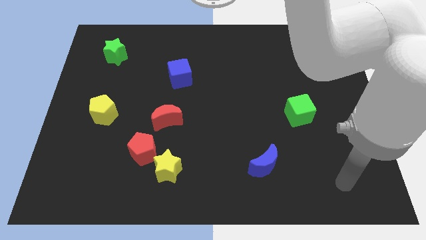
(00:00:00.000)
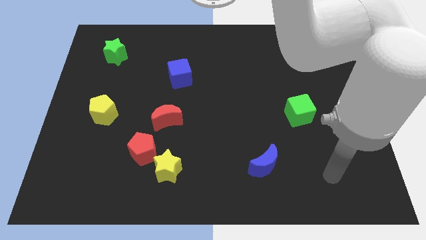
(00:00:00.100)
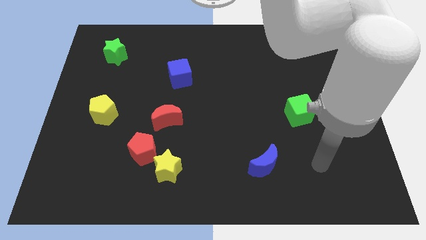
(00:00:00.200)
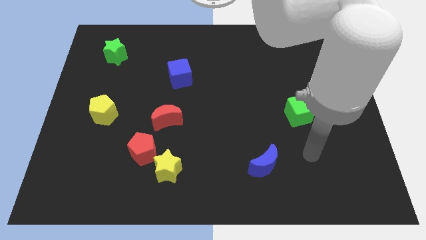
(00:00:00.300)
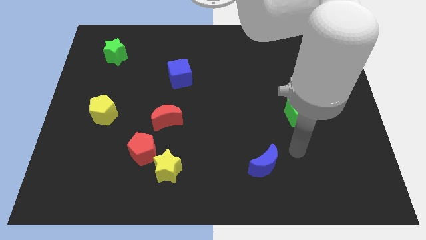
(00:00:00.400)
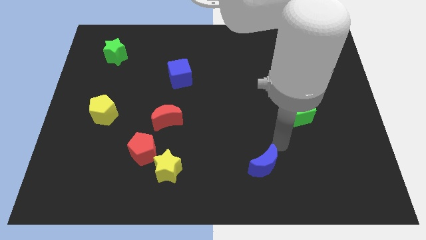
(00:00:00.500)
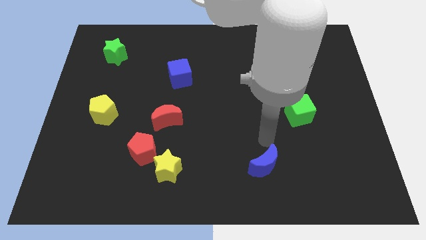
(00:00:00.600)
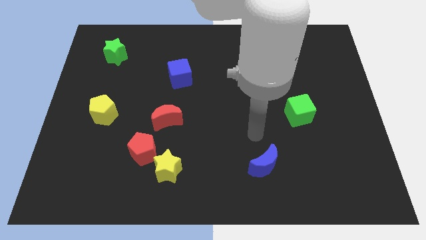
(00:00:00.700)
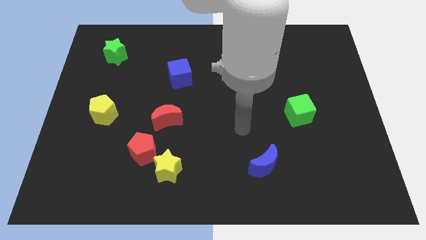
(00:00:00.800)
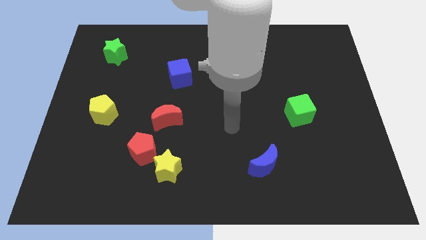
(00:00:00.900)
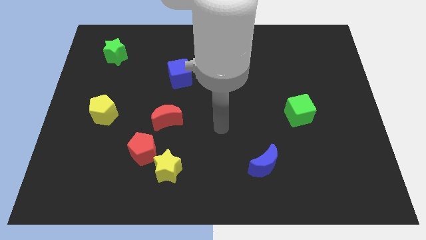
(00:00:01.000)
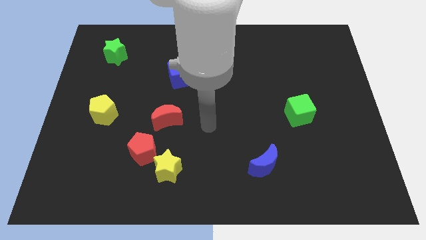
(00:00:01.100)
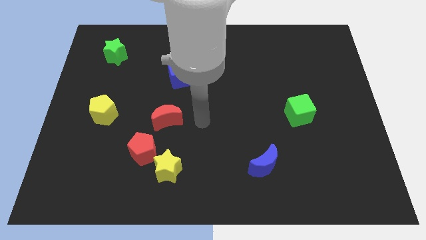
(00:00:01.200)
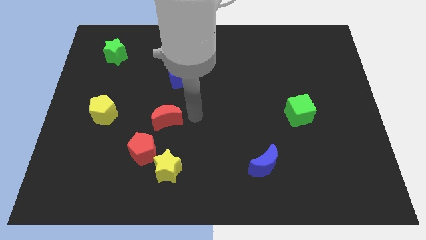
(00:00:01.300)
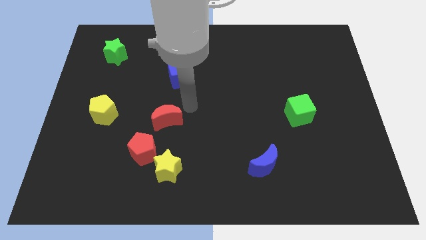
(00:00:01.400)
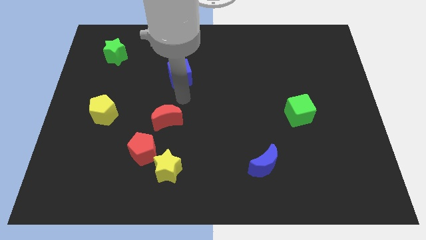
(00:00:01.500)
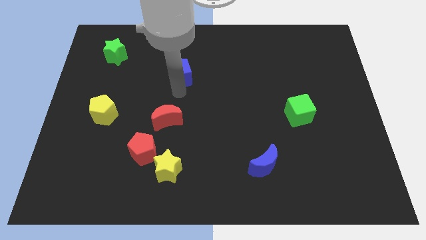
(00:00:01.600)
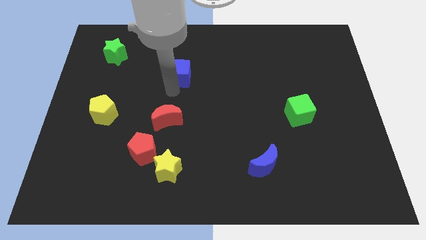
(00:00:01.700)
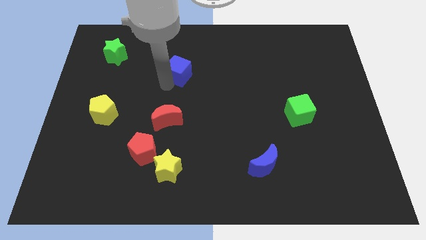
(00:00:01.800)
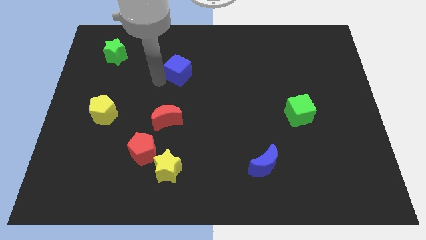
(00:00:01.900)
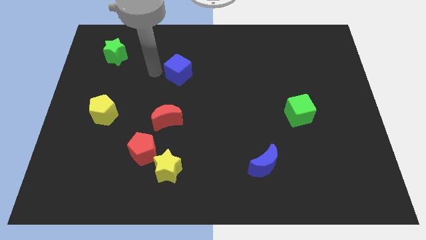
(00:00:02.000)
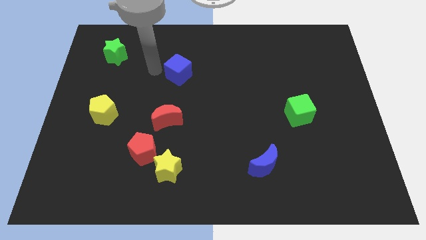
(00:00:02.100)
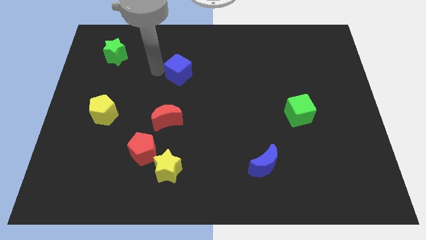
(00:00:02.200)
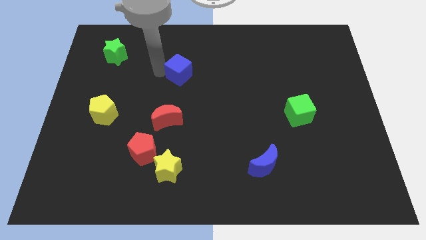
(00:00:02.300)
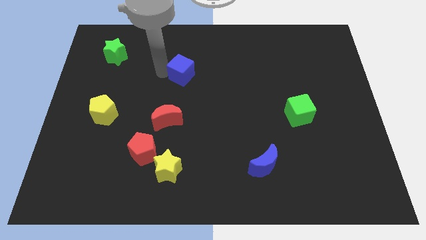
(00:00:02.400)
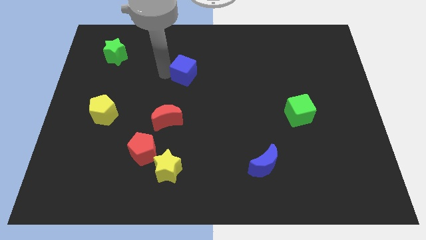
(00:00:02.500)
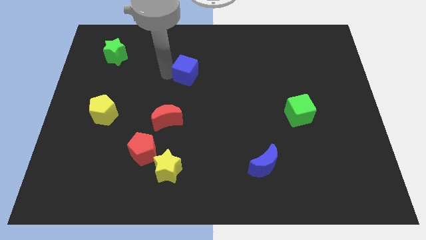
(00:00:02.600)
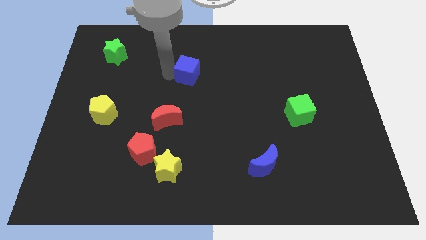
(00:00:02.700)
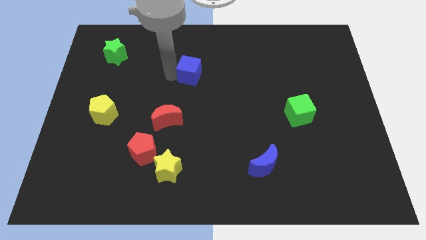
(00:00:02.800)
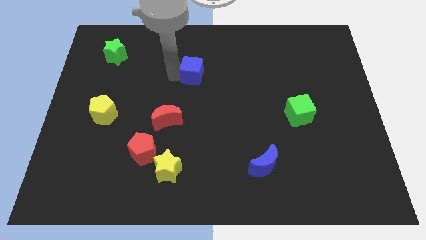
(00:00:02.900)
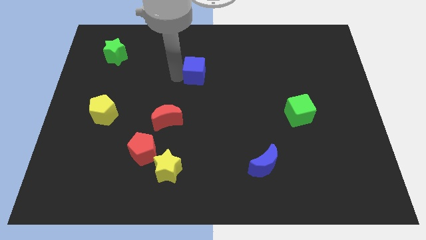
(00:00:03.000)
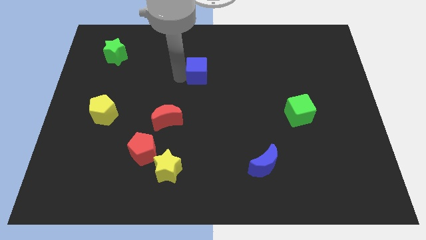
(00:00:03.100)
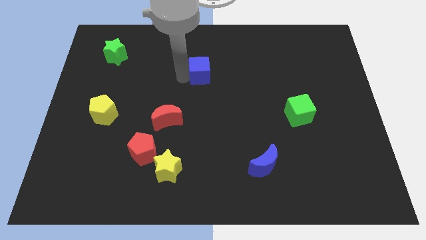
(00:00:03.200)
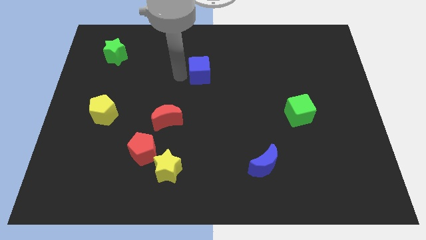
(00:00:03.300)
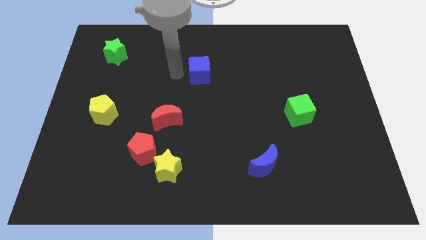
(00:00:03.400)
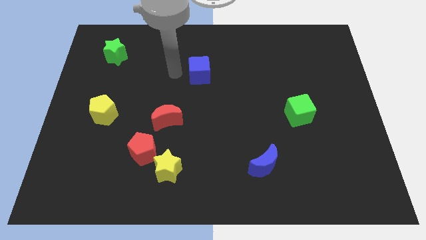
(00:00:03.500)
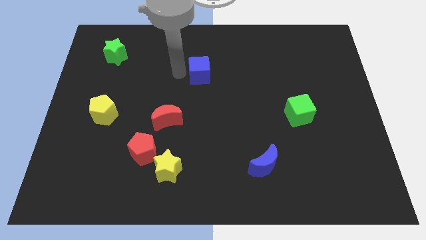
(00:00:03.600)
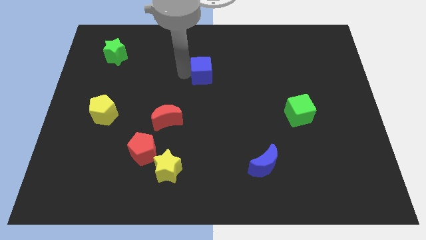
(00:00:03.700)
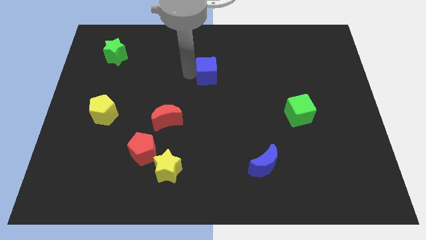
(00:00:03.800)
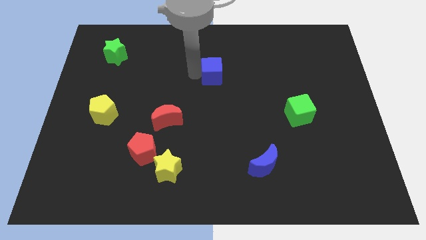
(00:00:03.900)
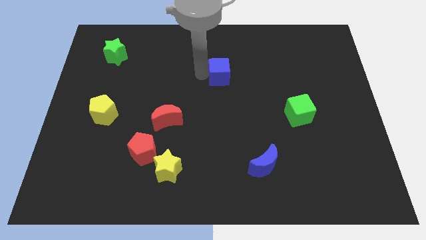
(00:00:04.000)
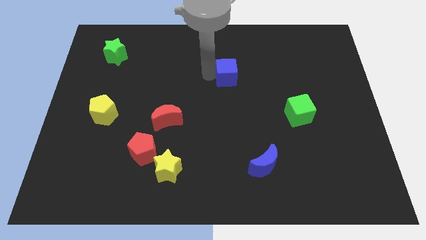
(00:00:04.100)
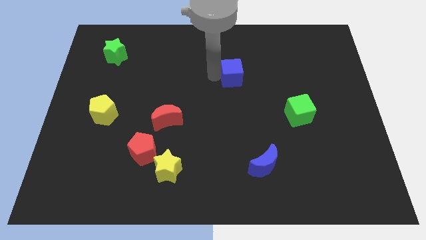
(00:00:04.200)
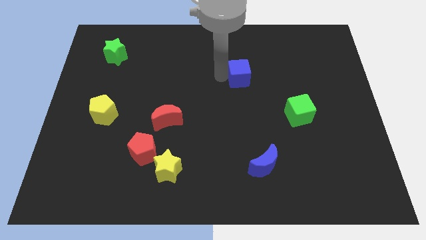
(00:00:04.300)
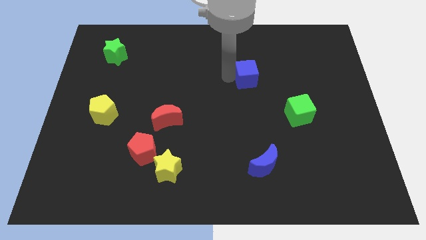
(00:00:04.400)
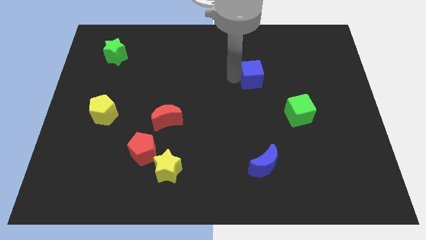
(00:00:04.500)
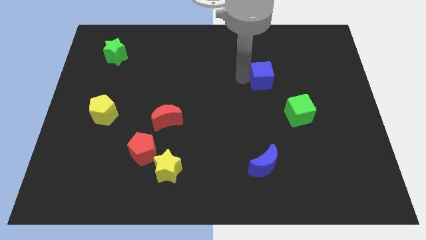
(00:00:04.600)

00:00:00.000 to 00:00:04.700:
push the blue cube right

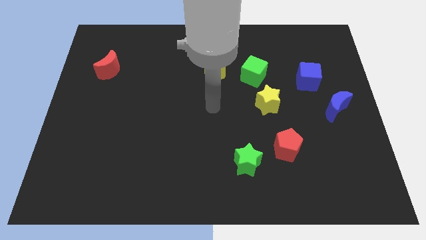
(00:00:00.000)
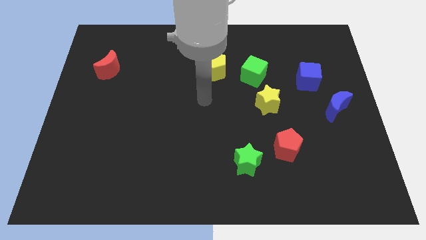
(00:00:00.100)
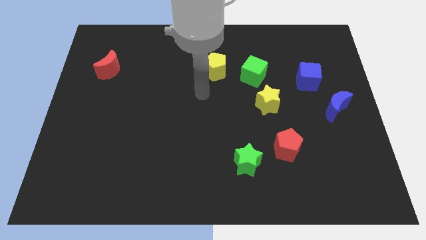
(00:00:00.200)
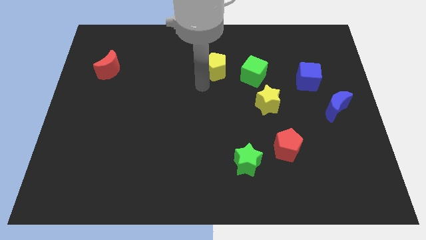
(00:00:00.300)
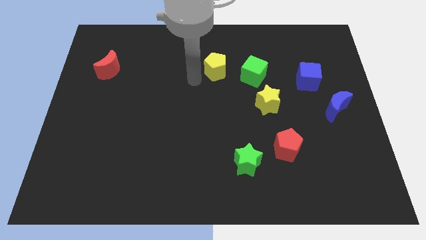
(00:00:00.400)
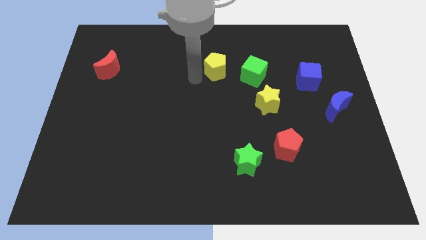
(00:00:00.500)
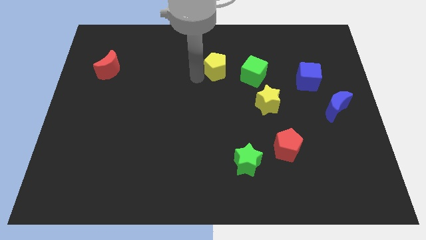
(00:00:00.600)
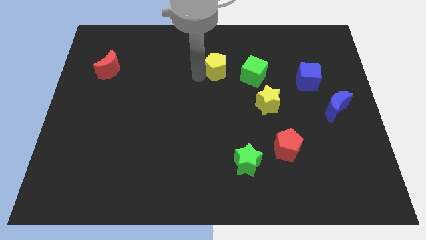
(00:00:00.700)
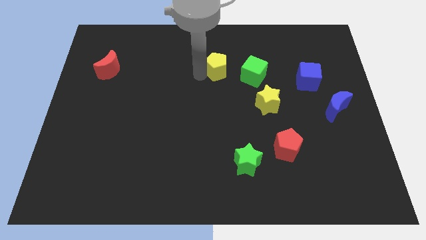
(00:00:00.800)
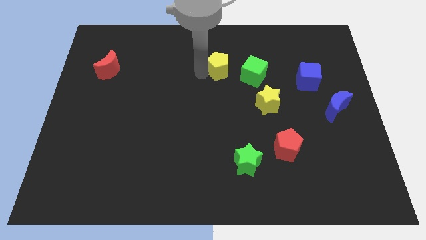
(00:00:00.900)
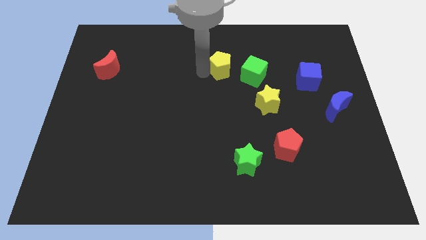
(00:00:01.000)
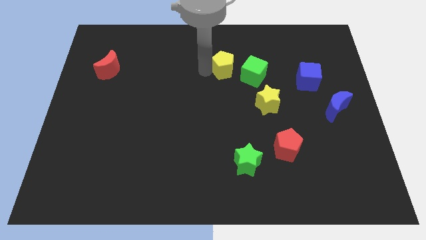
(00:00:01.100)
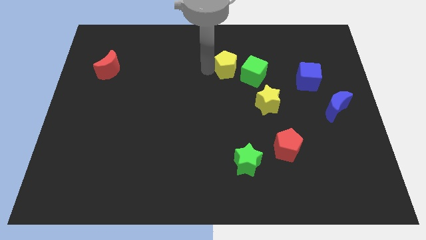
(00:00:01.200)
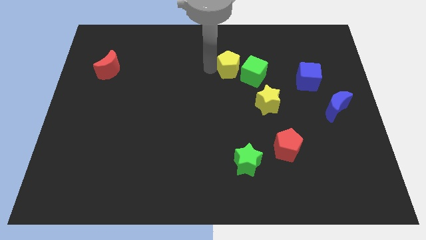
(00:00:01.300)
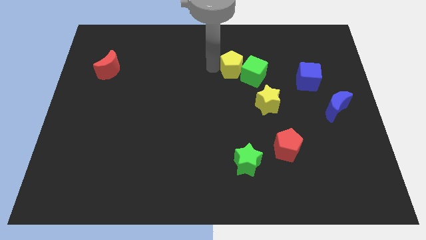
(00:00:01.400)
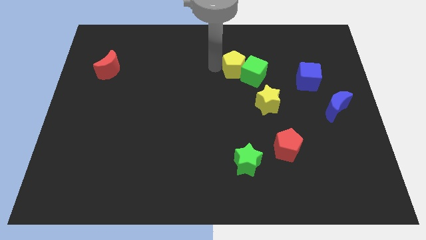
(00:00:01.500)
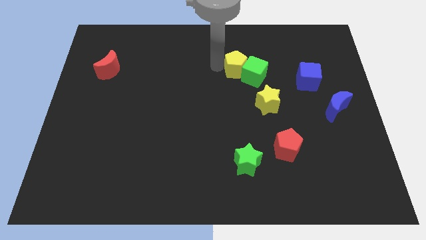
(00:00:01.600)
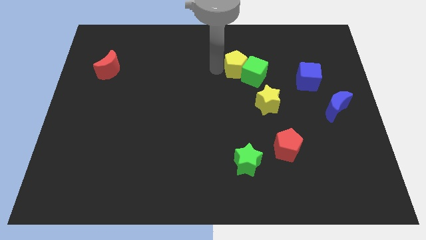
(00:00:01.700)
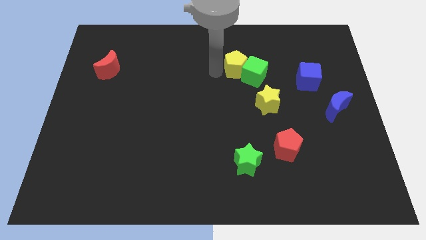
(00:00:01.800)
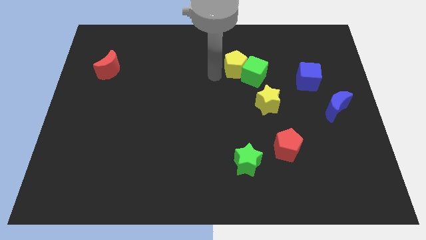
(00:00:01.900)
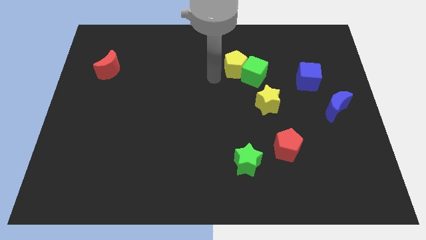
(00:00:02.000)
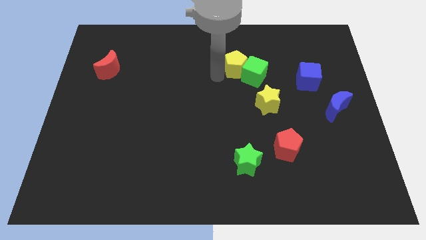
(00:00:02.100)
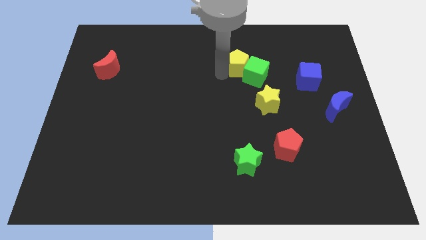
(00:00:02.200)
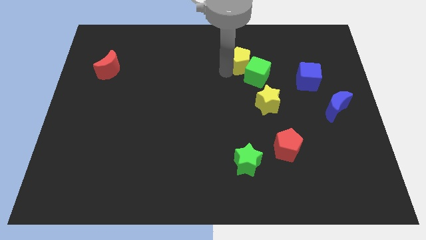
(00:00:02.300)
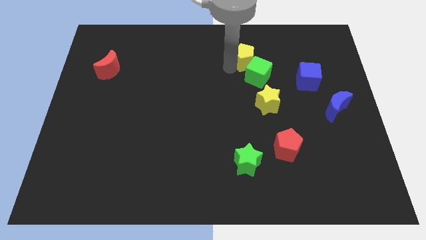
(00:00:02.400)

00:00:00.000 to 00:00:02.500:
move the yellow pentagon right a little

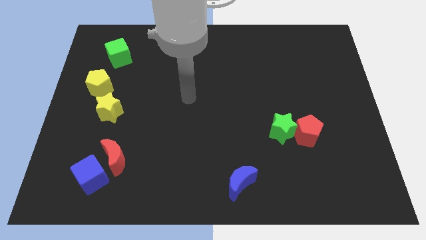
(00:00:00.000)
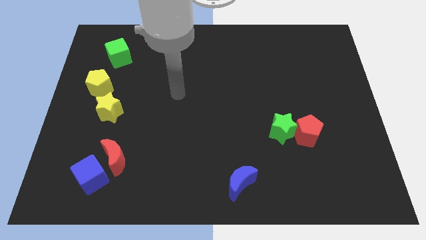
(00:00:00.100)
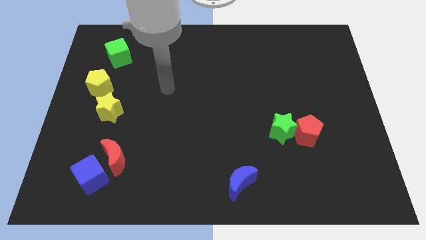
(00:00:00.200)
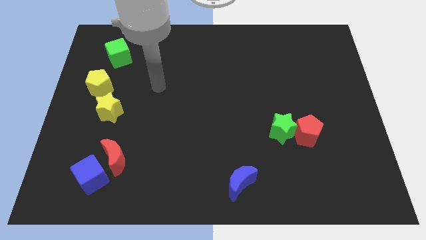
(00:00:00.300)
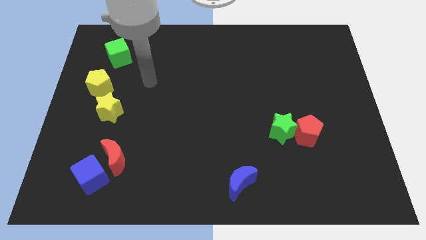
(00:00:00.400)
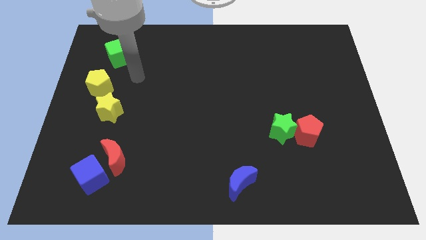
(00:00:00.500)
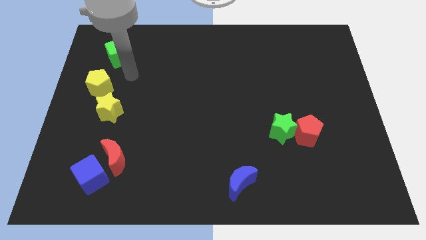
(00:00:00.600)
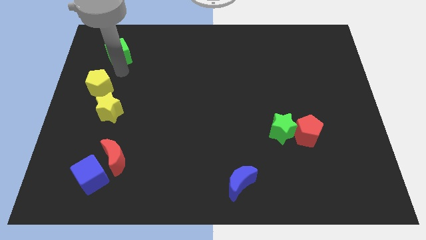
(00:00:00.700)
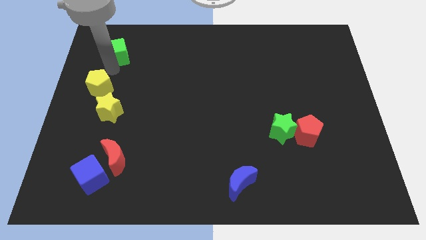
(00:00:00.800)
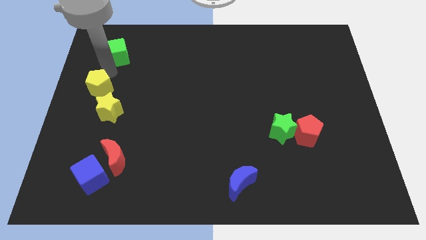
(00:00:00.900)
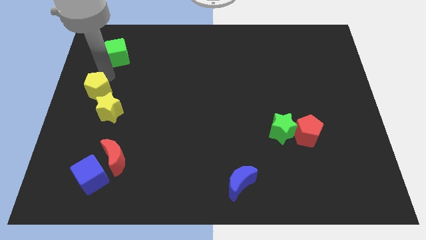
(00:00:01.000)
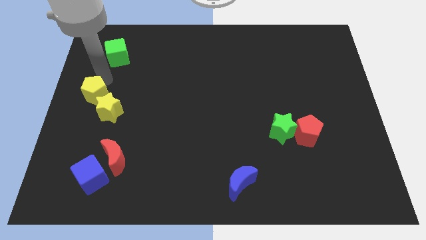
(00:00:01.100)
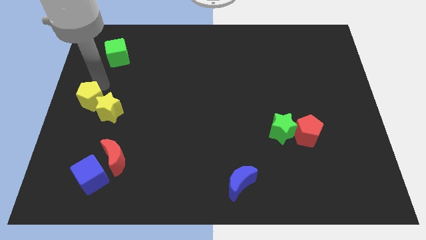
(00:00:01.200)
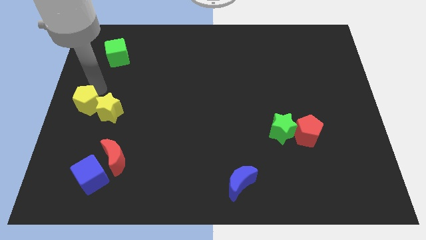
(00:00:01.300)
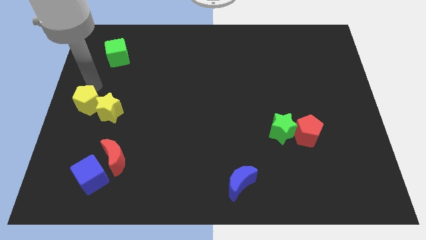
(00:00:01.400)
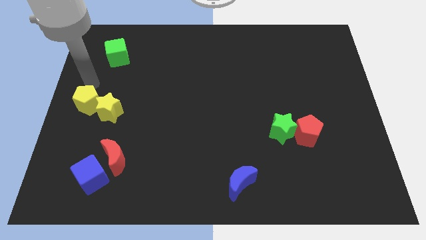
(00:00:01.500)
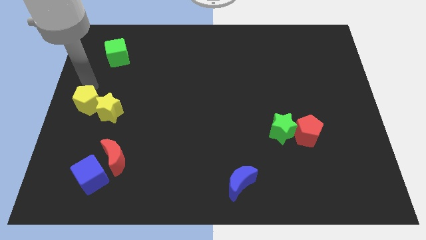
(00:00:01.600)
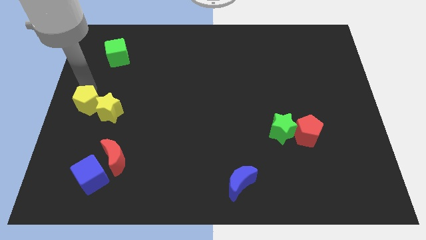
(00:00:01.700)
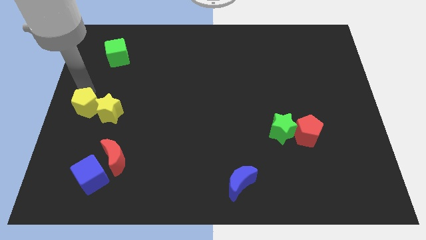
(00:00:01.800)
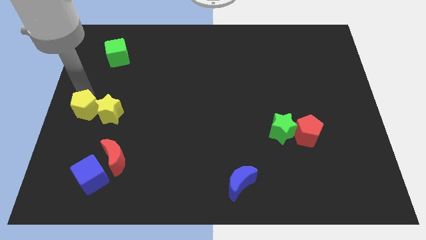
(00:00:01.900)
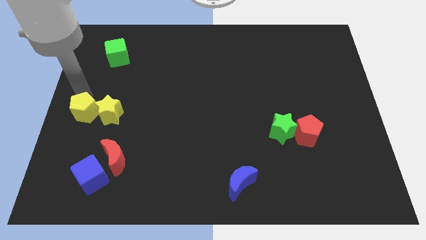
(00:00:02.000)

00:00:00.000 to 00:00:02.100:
move the yellow pentagon a bit down
